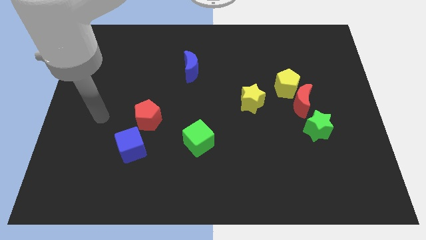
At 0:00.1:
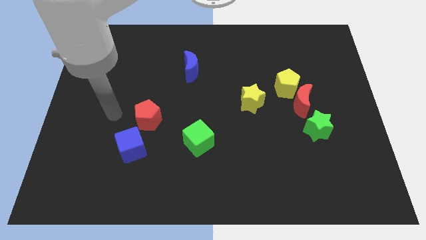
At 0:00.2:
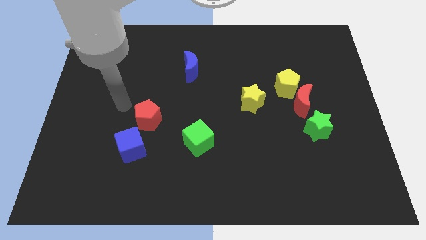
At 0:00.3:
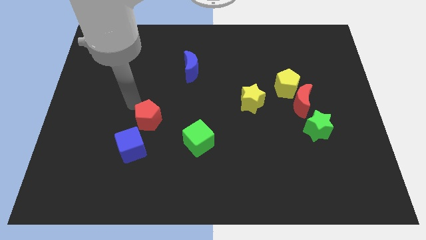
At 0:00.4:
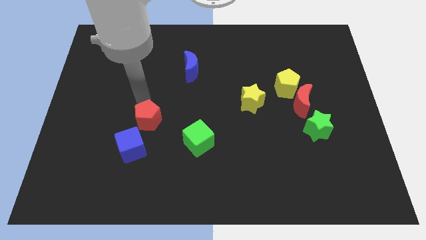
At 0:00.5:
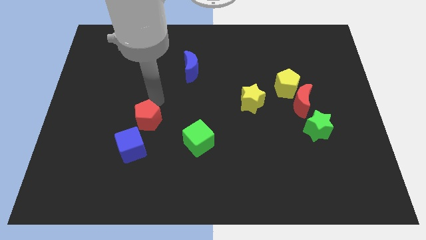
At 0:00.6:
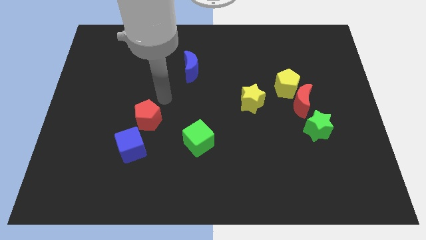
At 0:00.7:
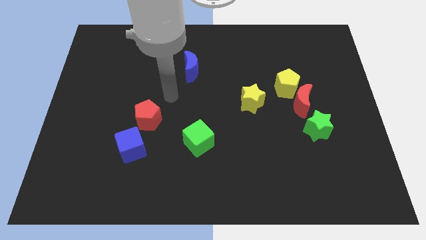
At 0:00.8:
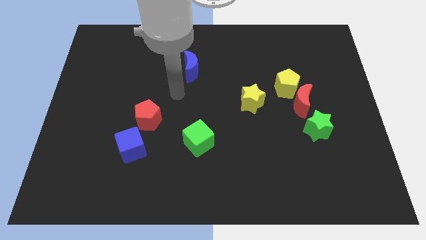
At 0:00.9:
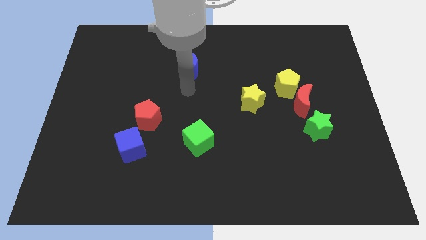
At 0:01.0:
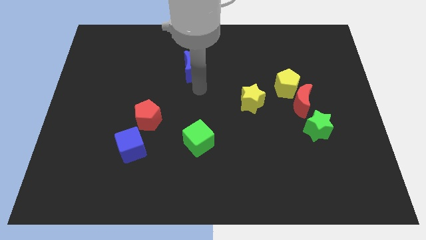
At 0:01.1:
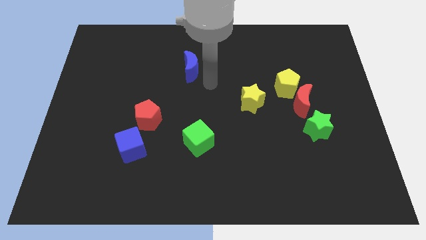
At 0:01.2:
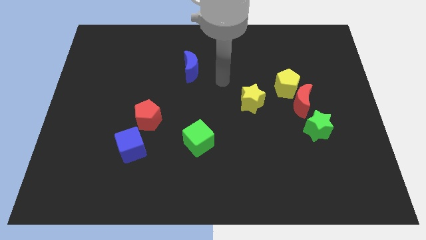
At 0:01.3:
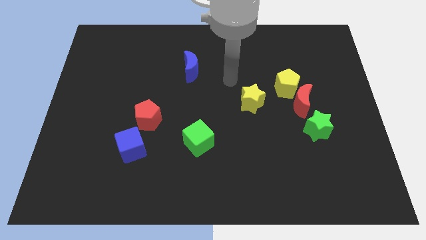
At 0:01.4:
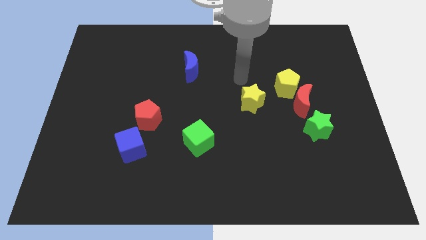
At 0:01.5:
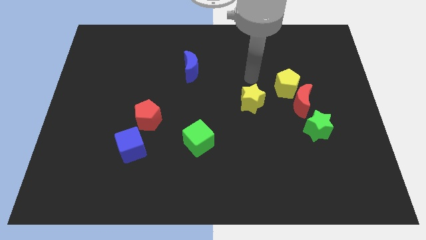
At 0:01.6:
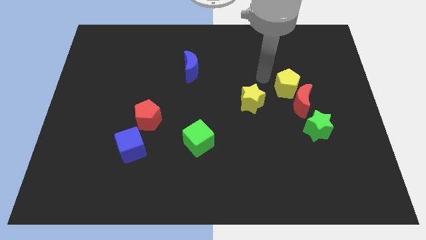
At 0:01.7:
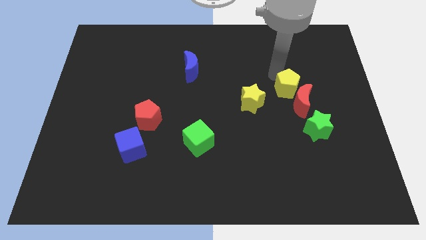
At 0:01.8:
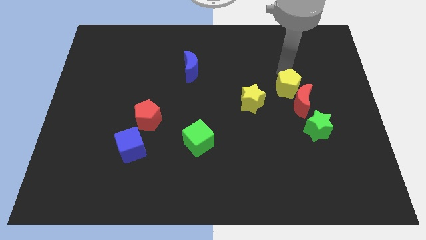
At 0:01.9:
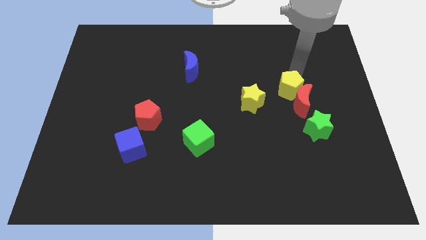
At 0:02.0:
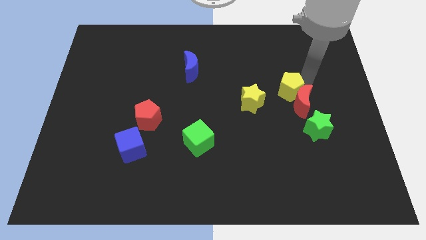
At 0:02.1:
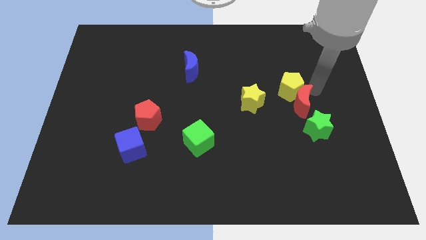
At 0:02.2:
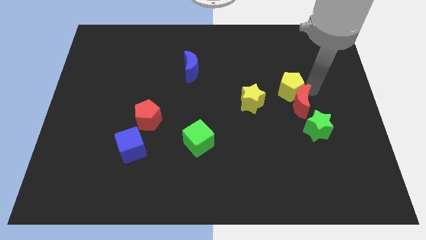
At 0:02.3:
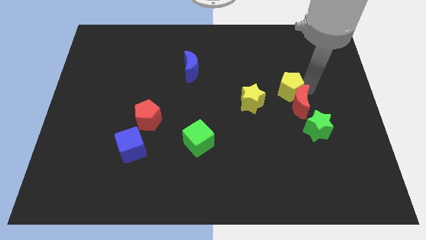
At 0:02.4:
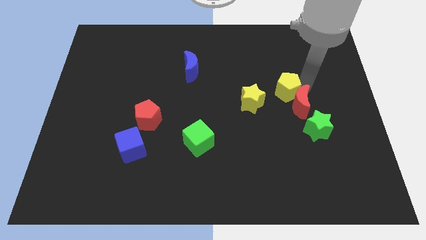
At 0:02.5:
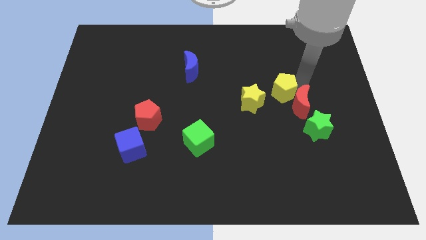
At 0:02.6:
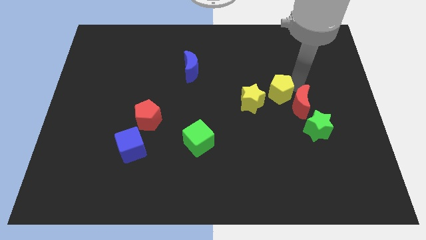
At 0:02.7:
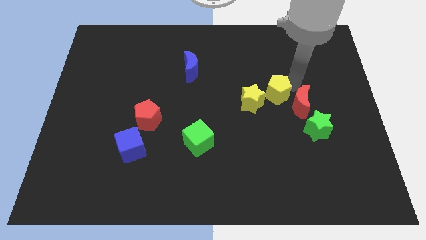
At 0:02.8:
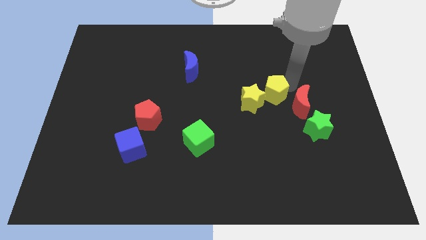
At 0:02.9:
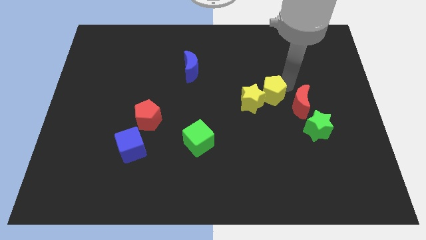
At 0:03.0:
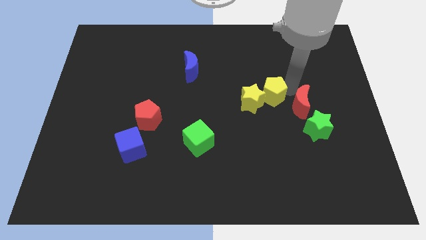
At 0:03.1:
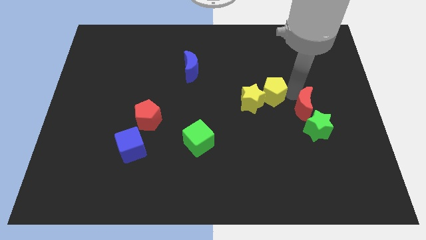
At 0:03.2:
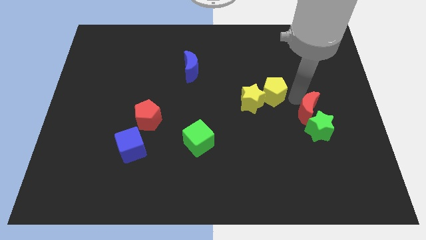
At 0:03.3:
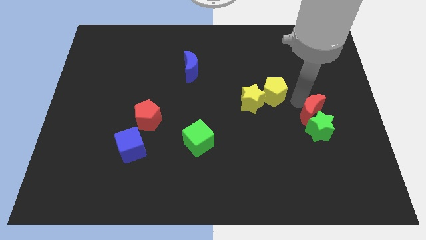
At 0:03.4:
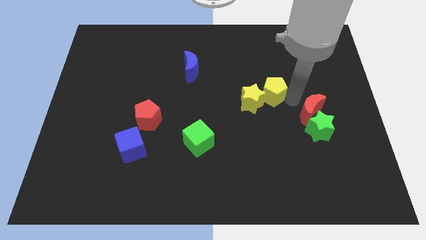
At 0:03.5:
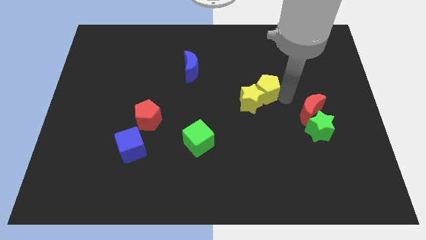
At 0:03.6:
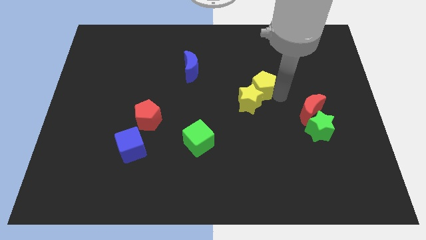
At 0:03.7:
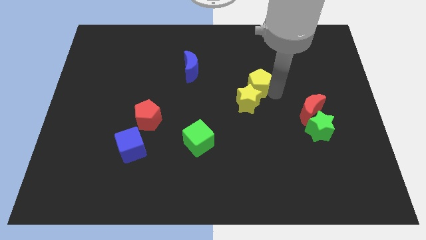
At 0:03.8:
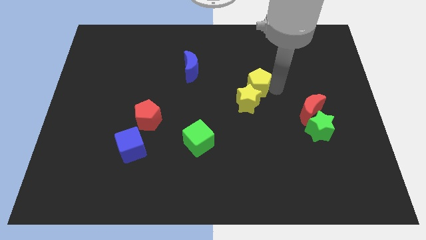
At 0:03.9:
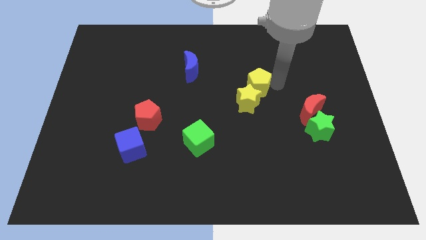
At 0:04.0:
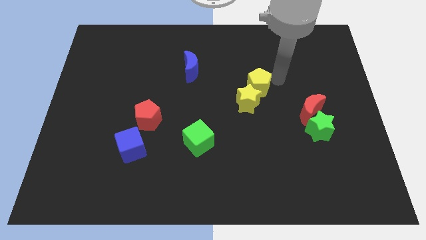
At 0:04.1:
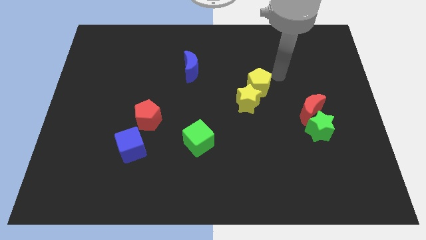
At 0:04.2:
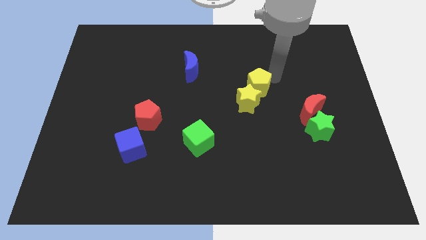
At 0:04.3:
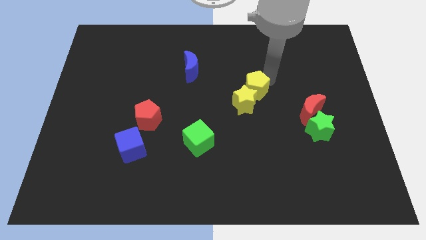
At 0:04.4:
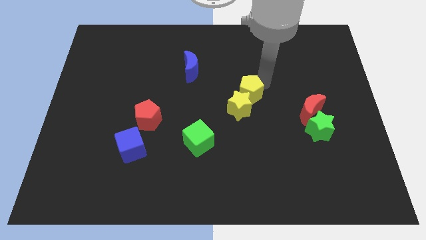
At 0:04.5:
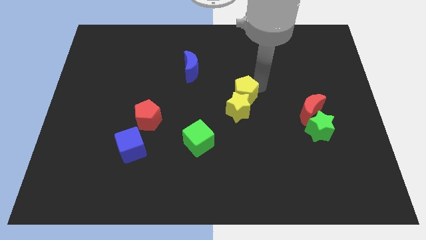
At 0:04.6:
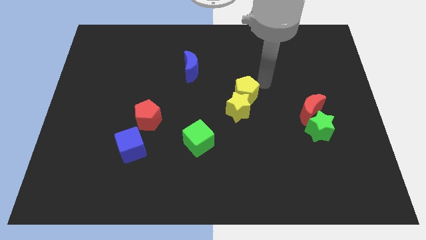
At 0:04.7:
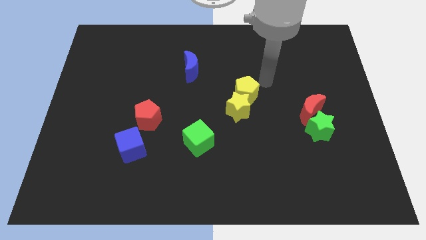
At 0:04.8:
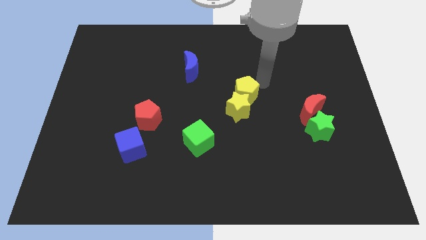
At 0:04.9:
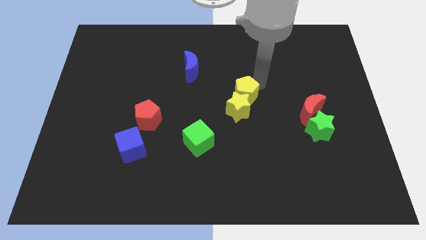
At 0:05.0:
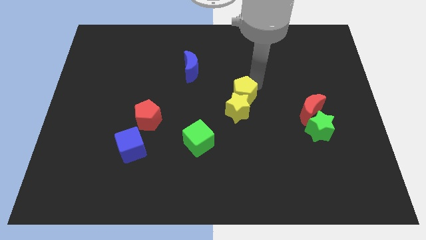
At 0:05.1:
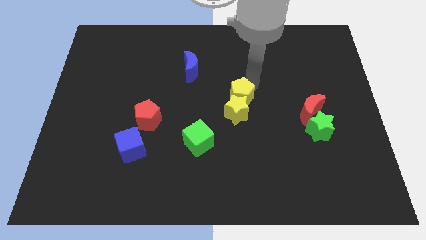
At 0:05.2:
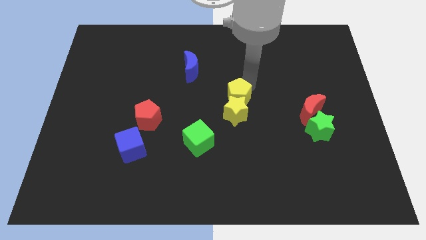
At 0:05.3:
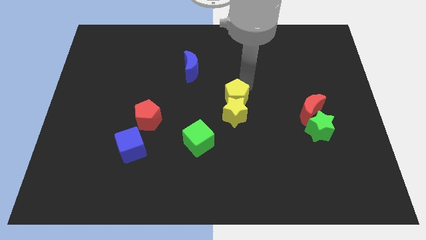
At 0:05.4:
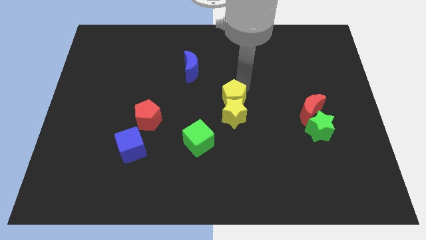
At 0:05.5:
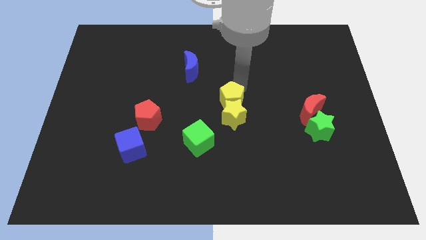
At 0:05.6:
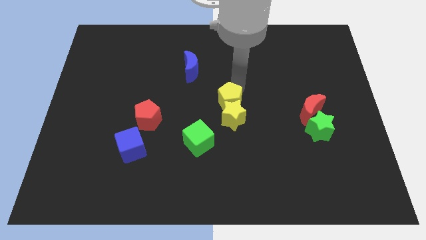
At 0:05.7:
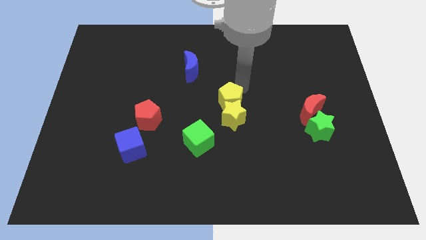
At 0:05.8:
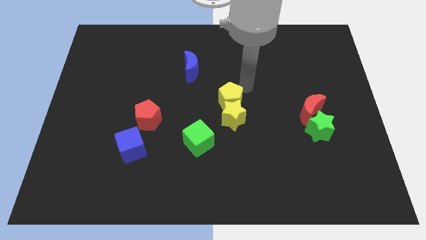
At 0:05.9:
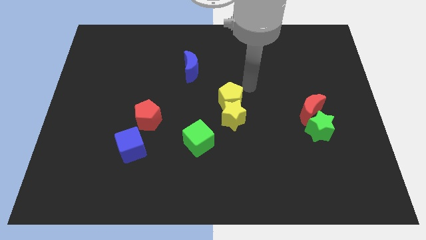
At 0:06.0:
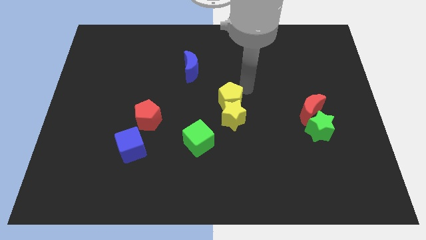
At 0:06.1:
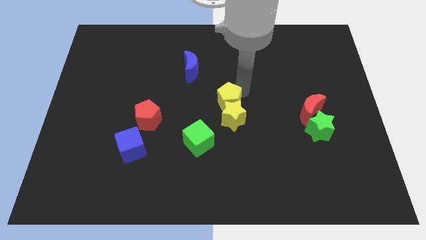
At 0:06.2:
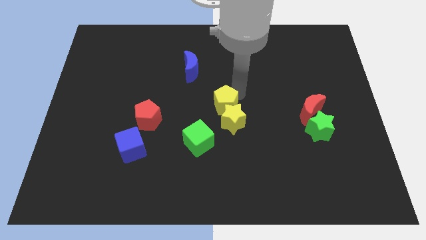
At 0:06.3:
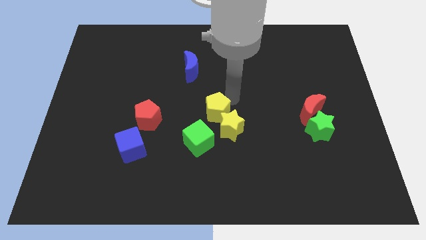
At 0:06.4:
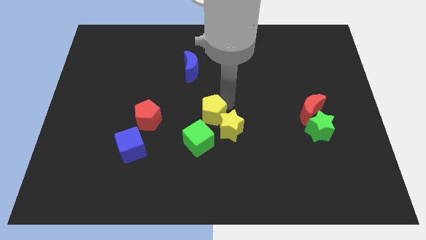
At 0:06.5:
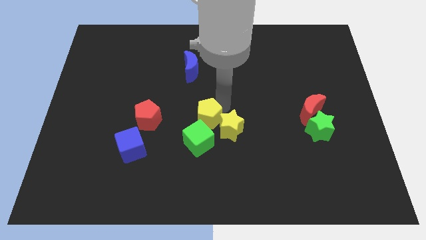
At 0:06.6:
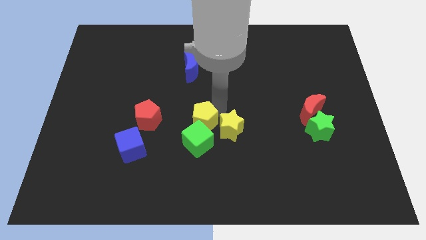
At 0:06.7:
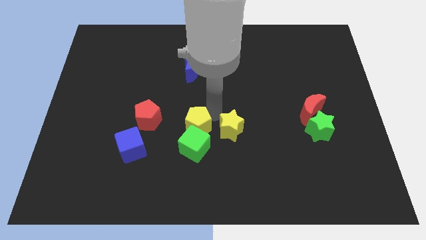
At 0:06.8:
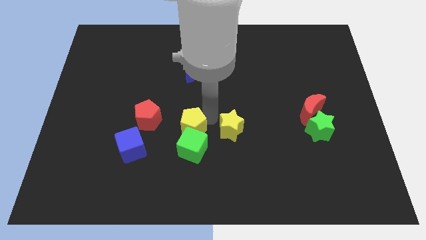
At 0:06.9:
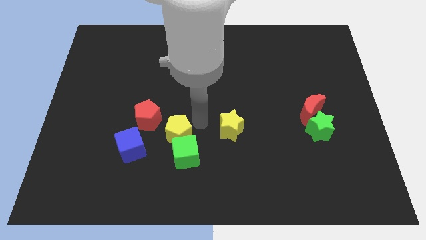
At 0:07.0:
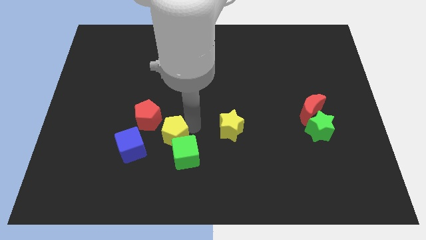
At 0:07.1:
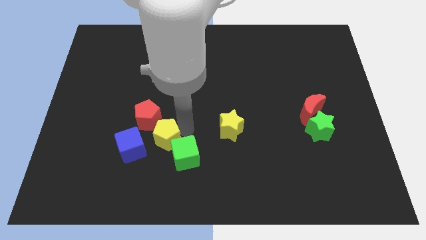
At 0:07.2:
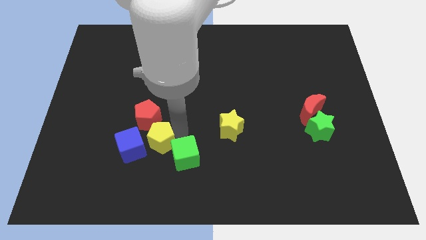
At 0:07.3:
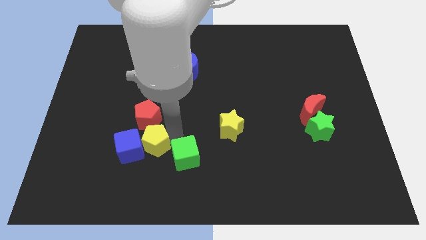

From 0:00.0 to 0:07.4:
push the yellow pentagon towards the blue cube
